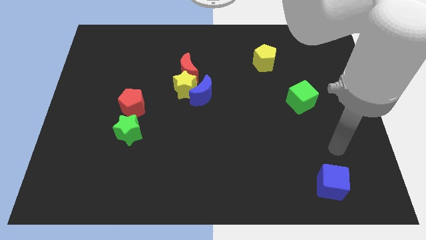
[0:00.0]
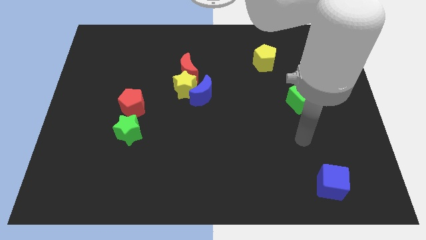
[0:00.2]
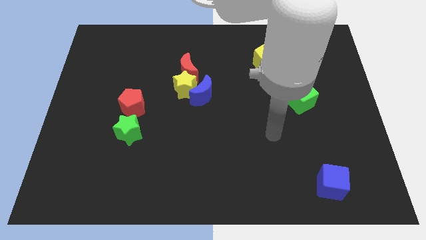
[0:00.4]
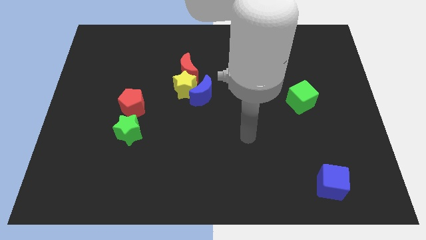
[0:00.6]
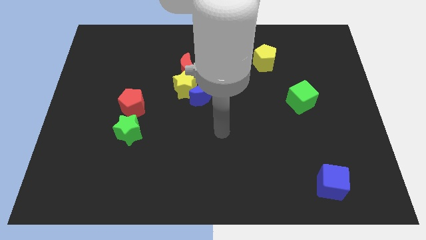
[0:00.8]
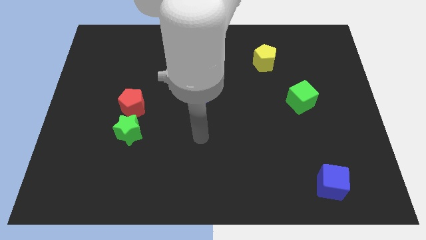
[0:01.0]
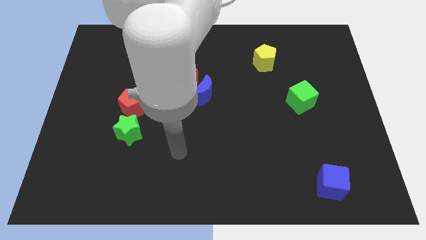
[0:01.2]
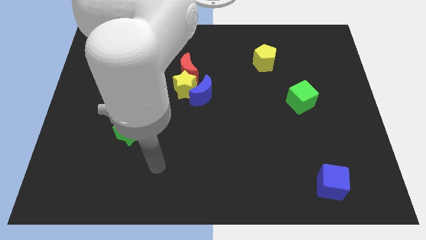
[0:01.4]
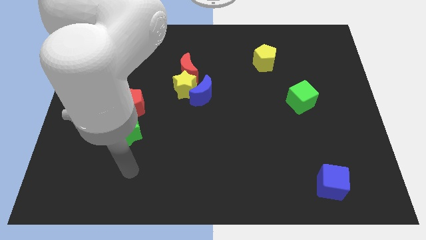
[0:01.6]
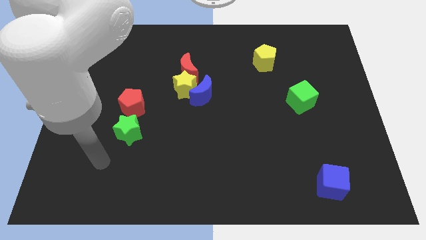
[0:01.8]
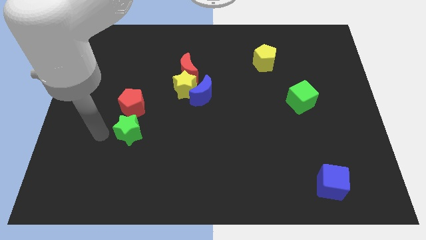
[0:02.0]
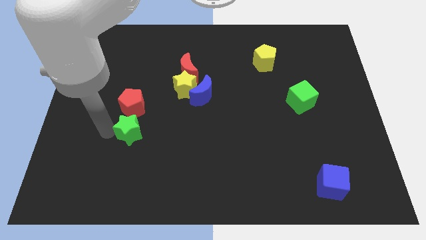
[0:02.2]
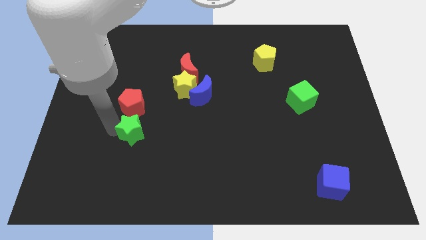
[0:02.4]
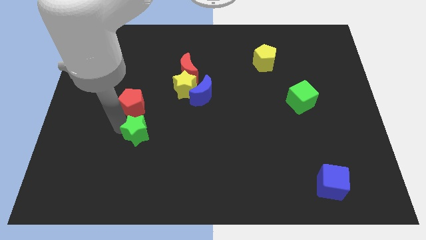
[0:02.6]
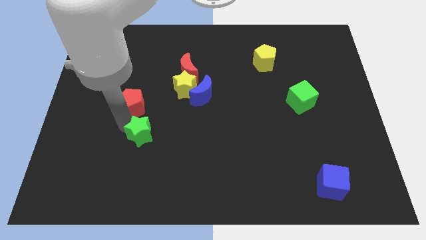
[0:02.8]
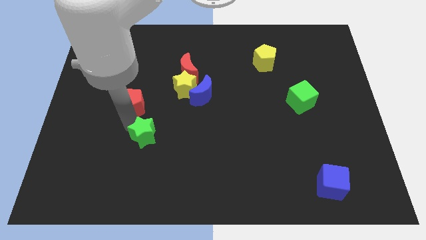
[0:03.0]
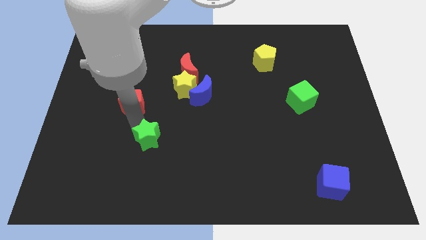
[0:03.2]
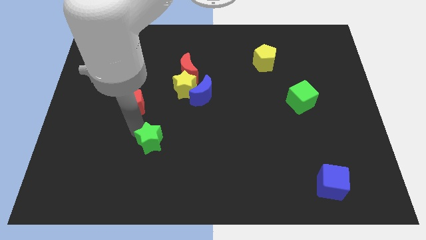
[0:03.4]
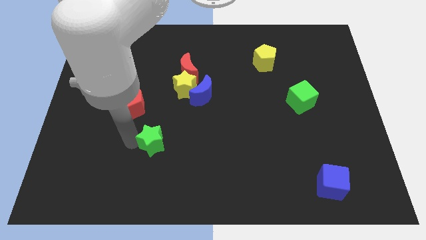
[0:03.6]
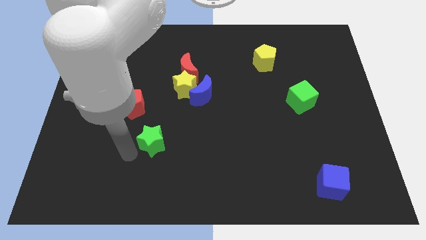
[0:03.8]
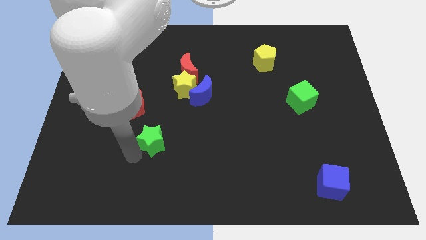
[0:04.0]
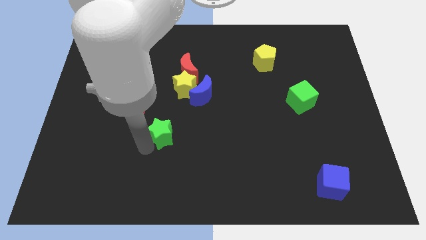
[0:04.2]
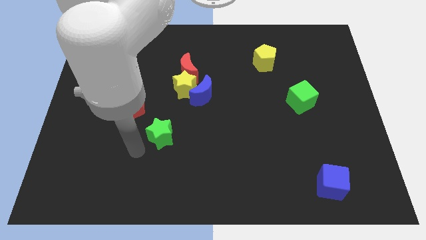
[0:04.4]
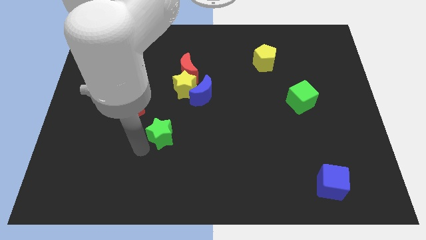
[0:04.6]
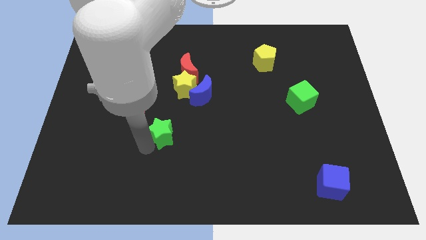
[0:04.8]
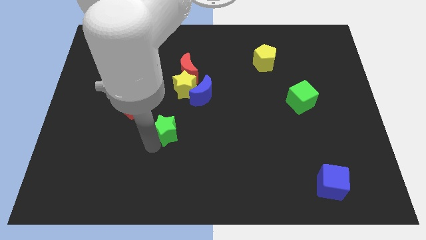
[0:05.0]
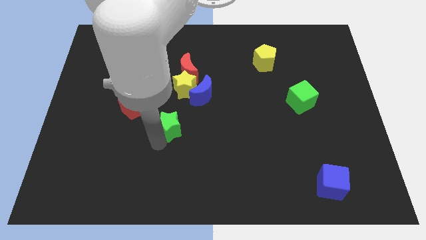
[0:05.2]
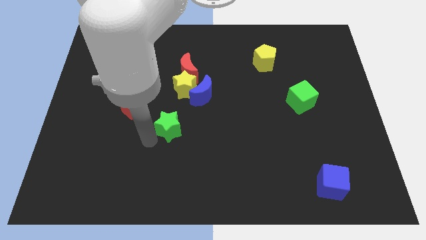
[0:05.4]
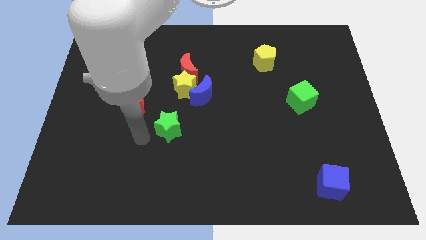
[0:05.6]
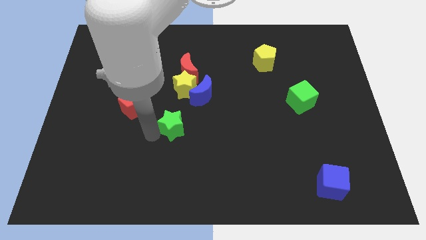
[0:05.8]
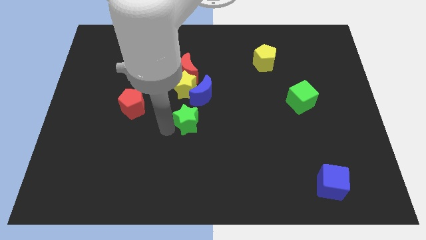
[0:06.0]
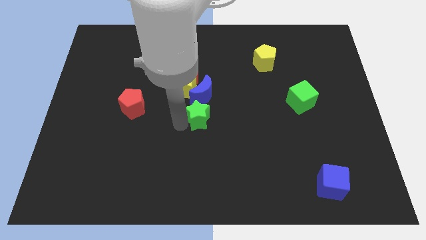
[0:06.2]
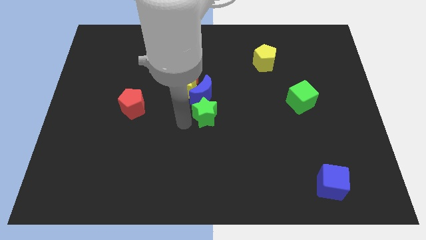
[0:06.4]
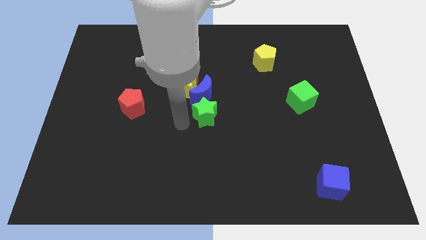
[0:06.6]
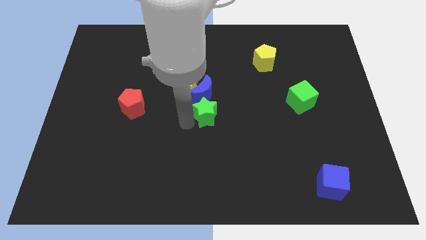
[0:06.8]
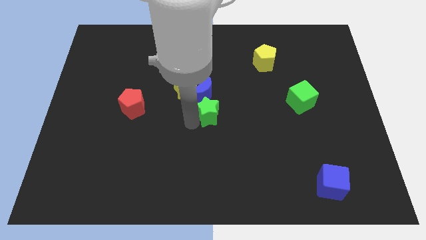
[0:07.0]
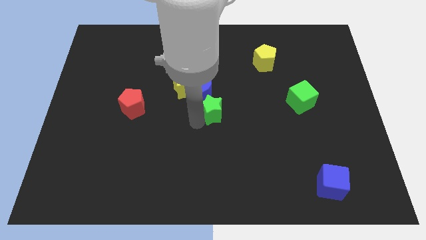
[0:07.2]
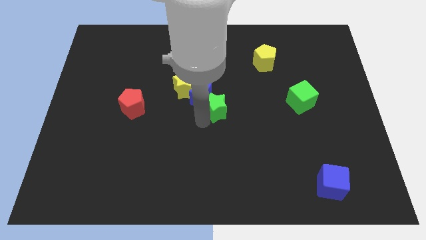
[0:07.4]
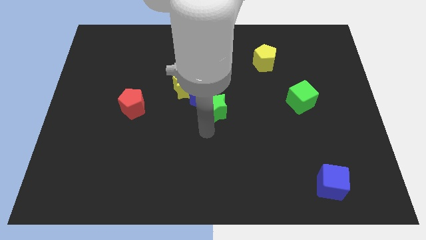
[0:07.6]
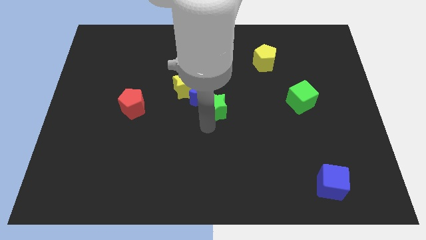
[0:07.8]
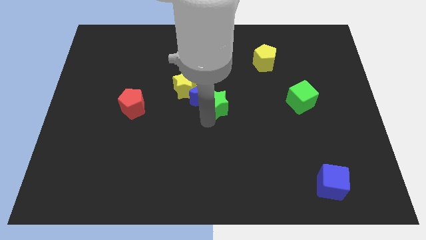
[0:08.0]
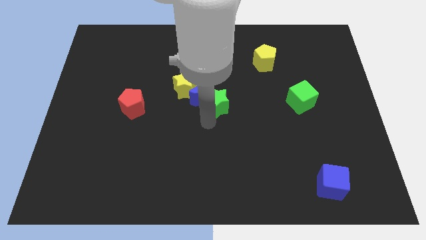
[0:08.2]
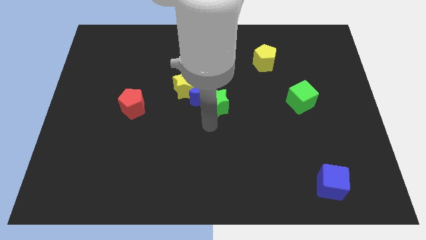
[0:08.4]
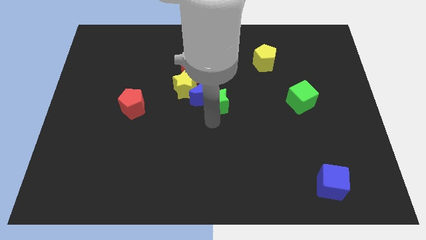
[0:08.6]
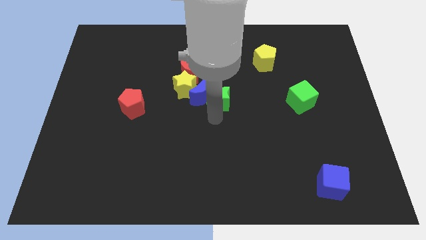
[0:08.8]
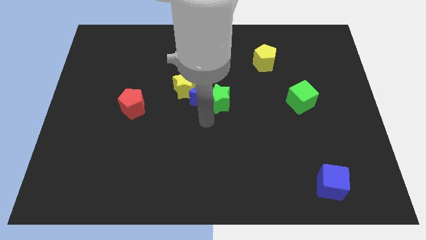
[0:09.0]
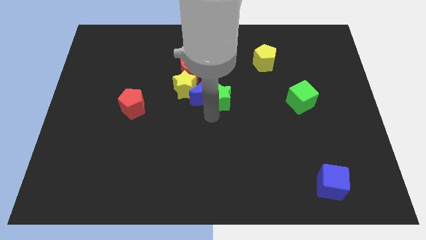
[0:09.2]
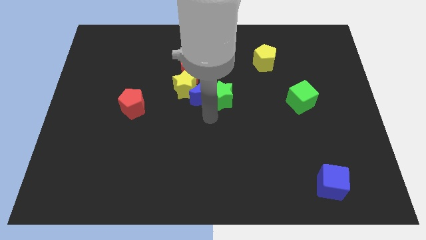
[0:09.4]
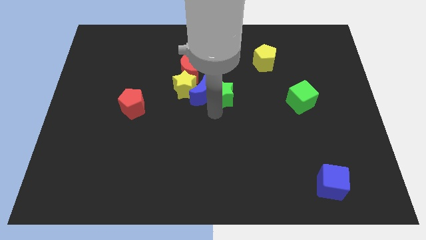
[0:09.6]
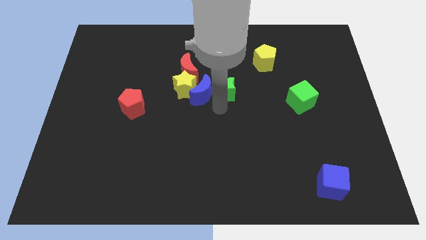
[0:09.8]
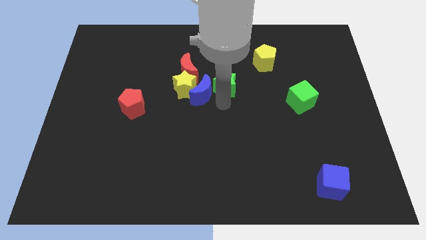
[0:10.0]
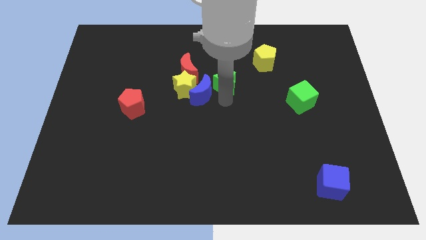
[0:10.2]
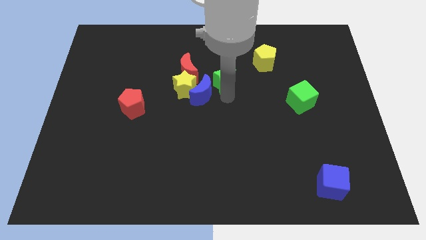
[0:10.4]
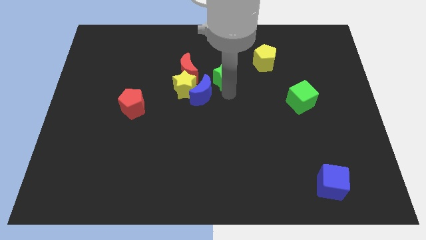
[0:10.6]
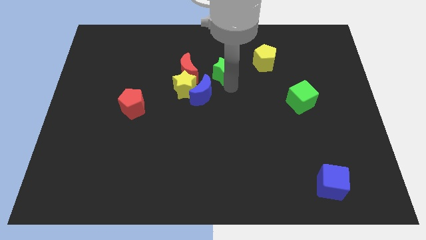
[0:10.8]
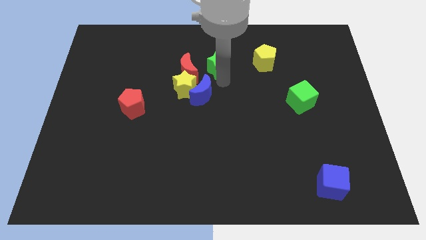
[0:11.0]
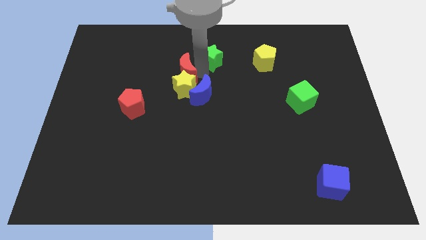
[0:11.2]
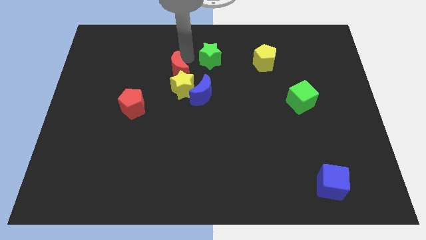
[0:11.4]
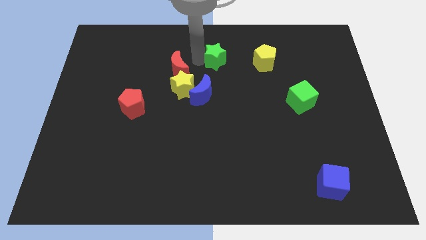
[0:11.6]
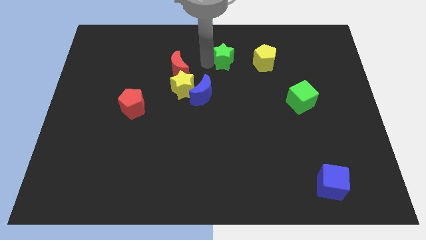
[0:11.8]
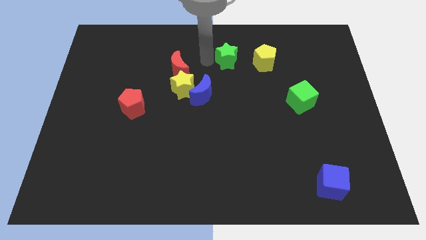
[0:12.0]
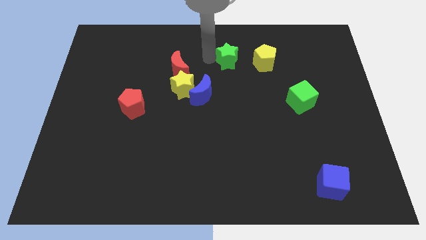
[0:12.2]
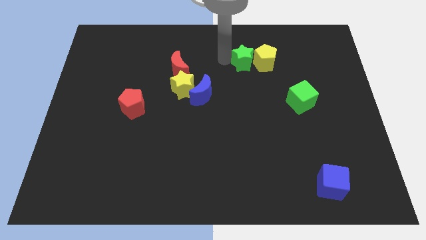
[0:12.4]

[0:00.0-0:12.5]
move the green star next to the yellow pentagon

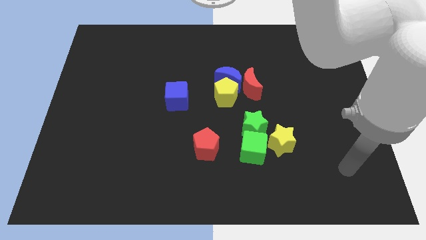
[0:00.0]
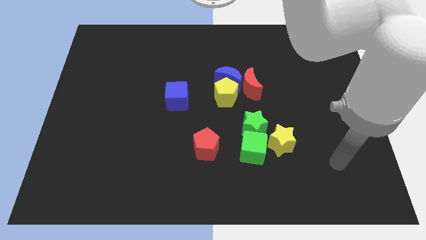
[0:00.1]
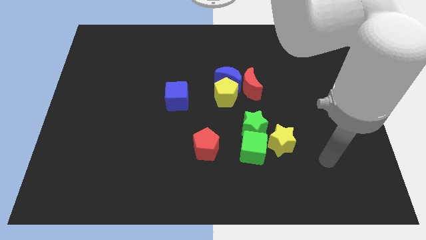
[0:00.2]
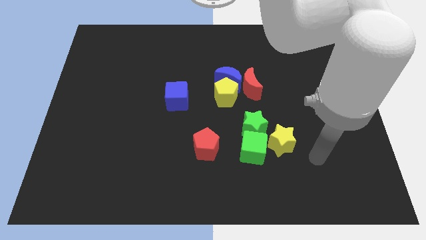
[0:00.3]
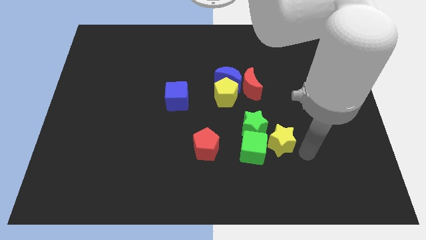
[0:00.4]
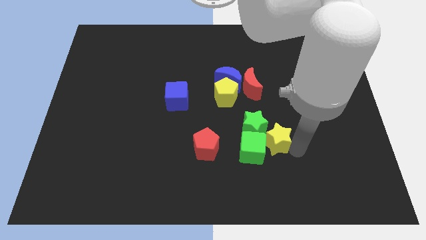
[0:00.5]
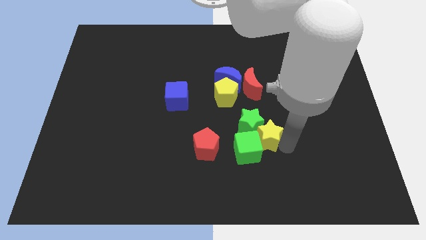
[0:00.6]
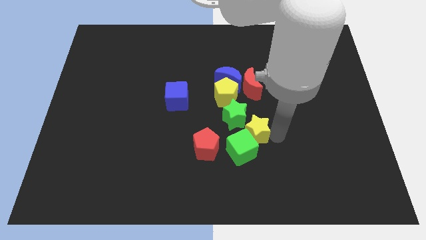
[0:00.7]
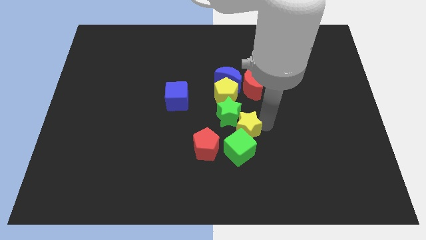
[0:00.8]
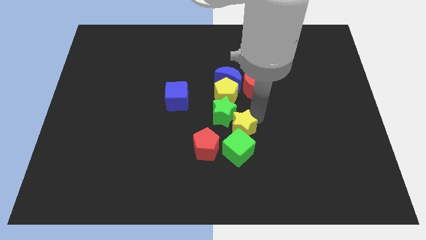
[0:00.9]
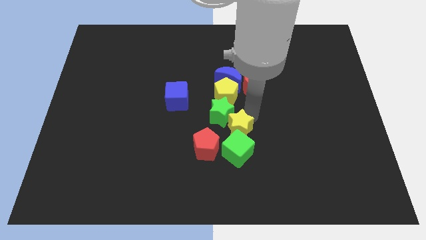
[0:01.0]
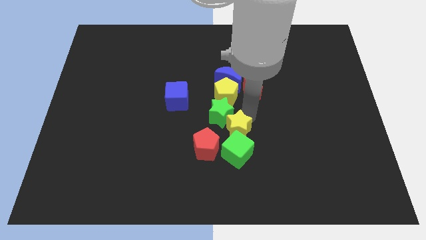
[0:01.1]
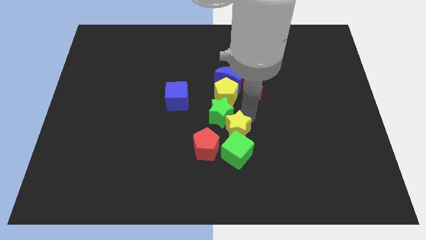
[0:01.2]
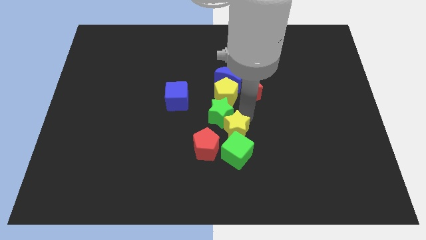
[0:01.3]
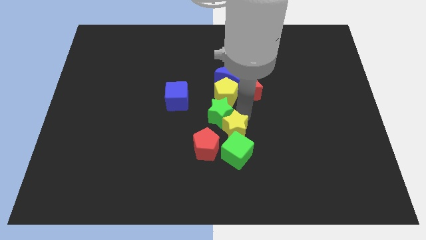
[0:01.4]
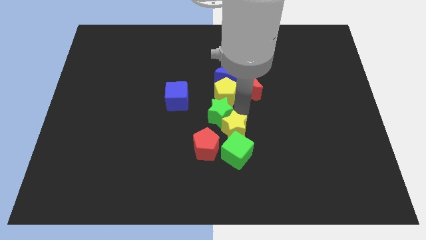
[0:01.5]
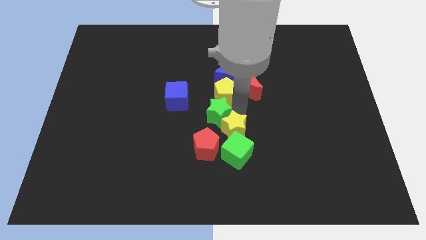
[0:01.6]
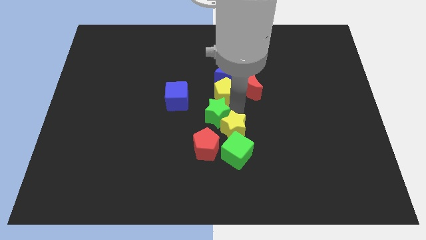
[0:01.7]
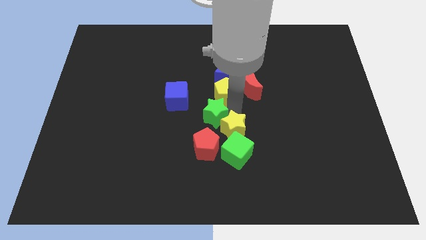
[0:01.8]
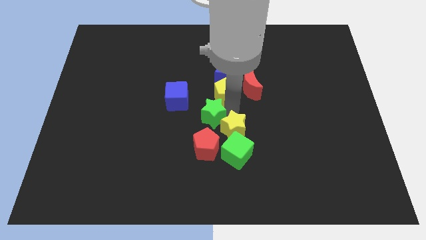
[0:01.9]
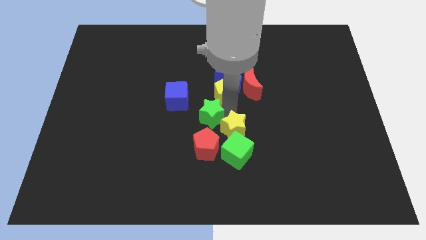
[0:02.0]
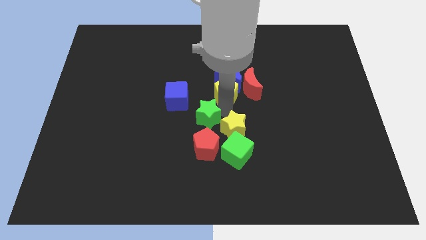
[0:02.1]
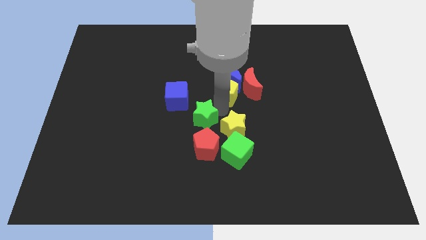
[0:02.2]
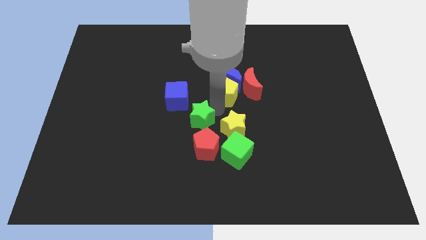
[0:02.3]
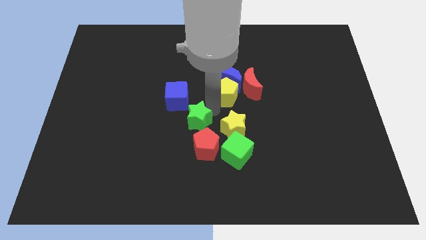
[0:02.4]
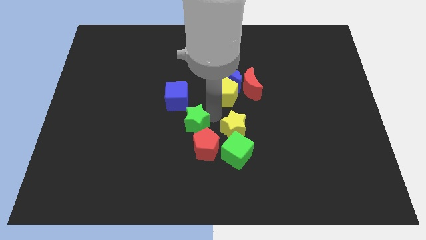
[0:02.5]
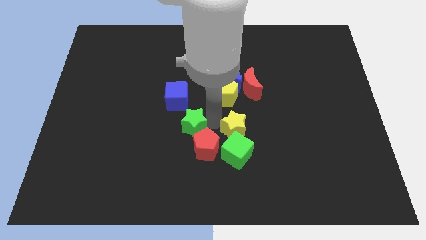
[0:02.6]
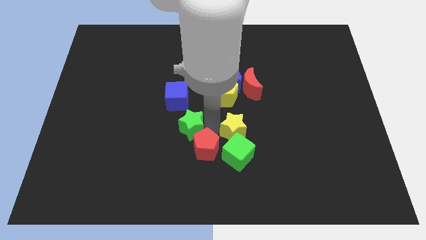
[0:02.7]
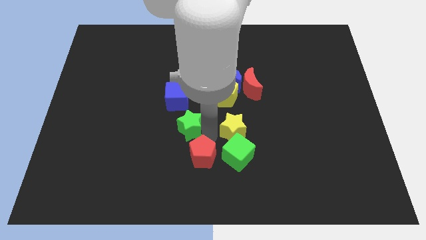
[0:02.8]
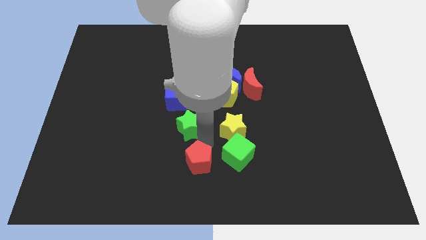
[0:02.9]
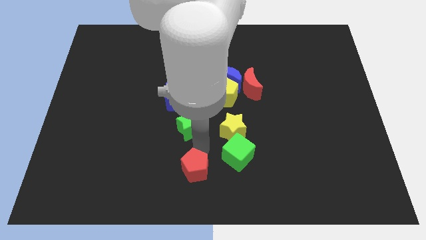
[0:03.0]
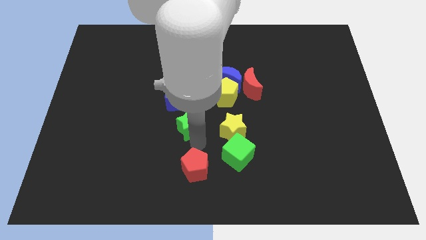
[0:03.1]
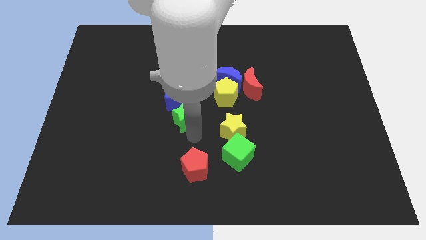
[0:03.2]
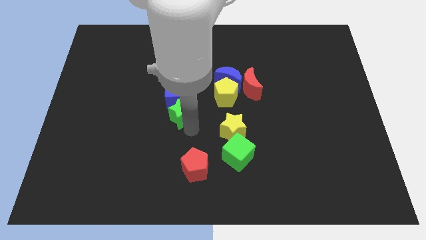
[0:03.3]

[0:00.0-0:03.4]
slide the green star to the blue cube
